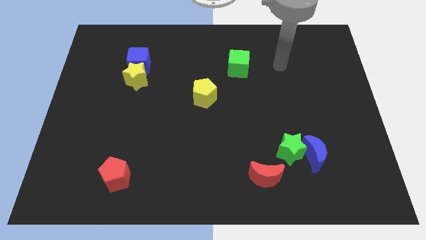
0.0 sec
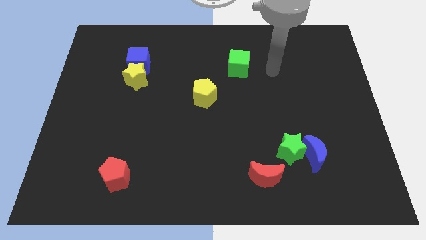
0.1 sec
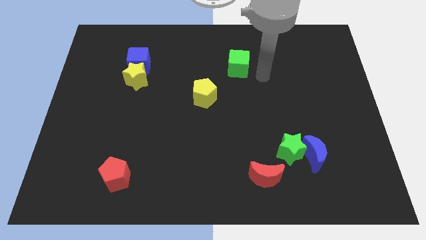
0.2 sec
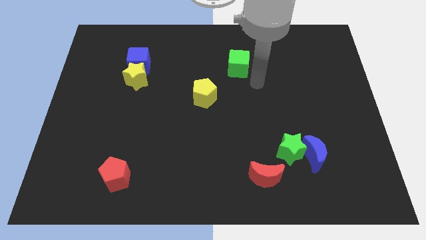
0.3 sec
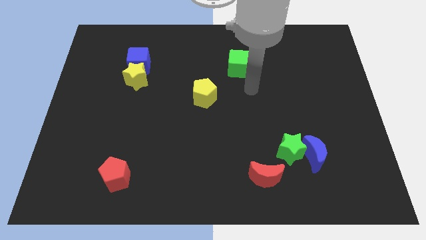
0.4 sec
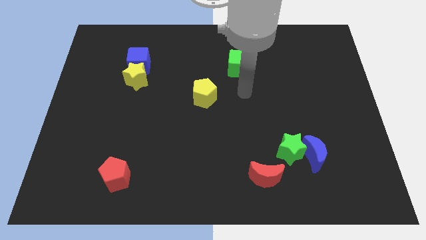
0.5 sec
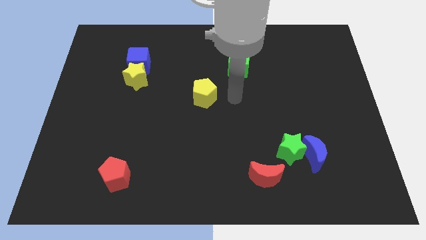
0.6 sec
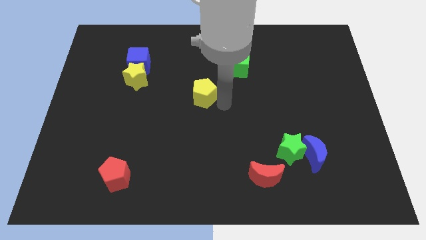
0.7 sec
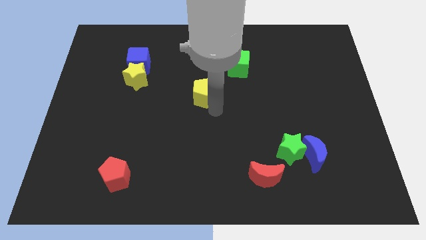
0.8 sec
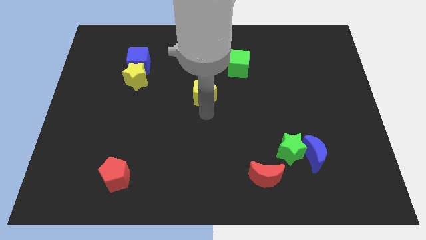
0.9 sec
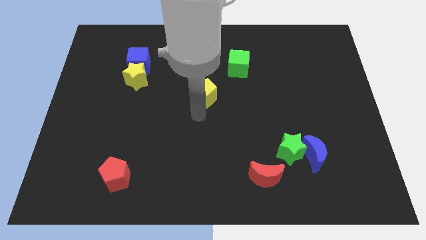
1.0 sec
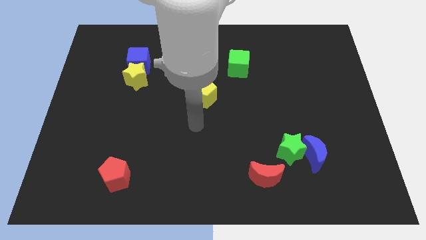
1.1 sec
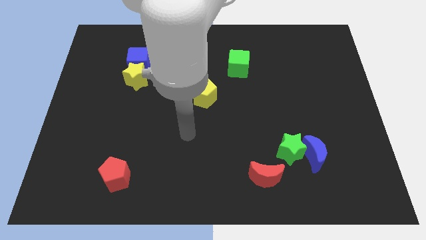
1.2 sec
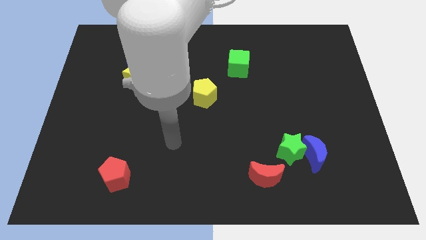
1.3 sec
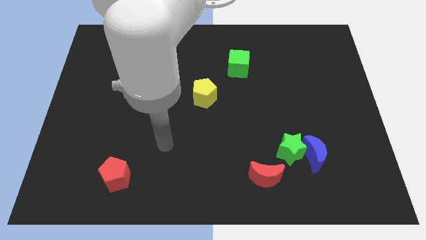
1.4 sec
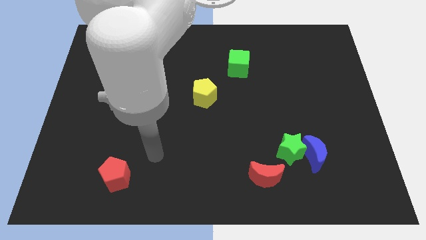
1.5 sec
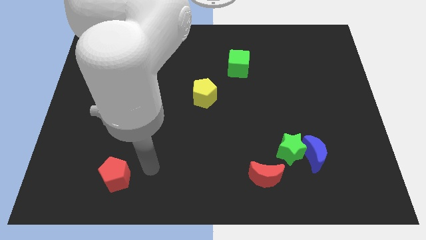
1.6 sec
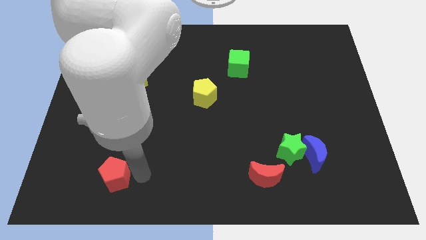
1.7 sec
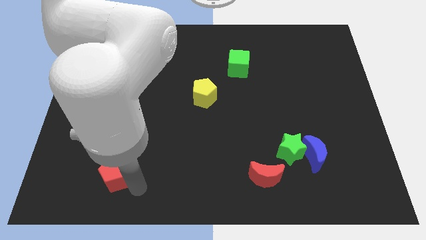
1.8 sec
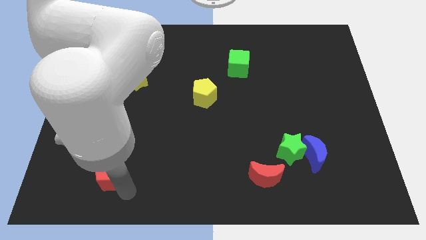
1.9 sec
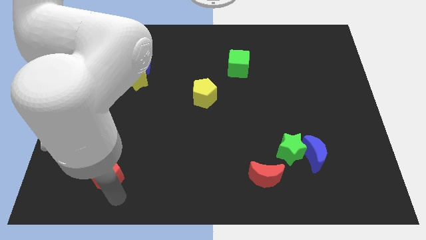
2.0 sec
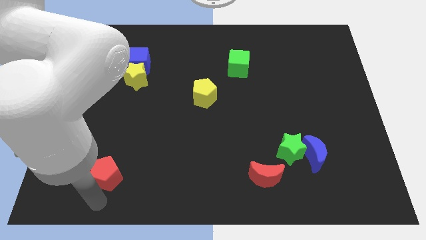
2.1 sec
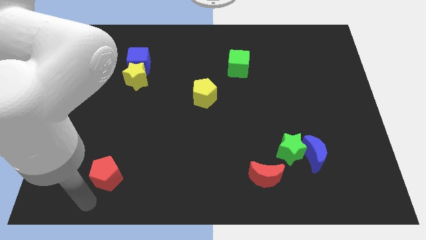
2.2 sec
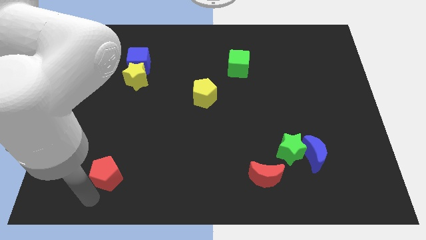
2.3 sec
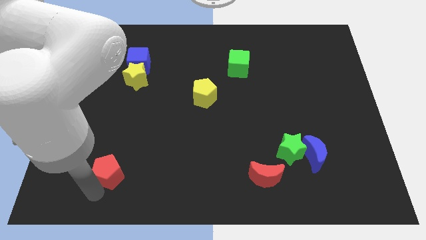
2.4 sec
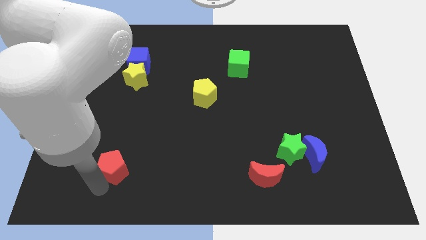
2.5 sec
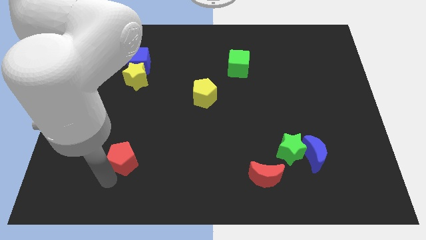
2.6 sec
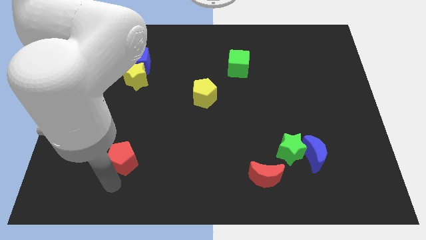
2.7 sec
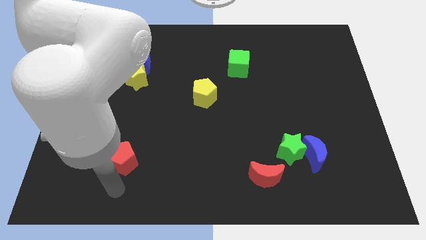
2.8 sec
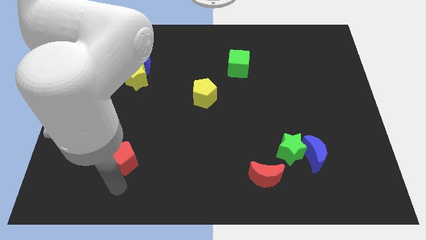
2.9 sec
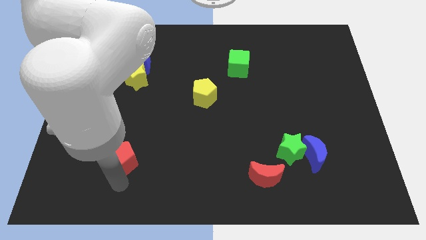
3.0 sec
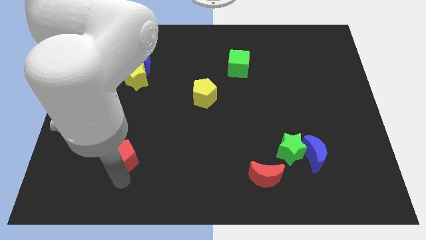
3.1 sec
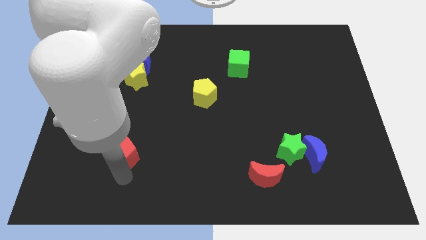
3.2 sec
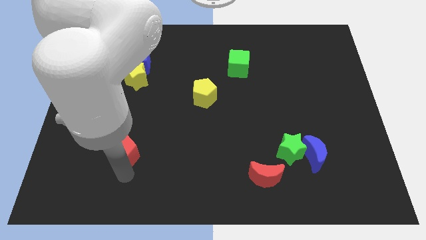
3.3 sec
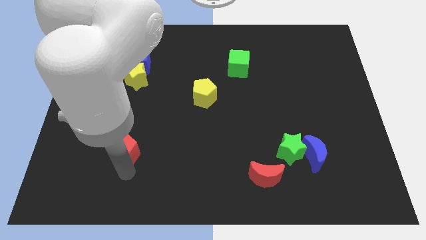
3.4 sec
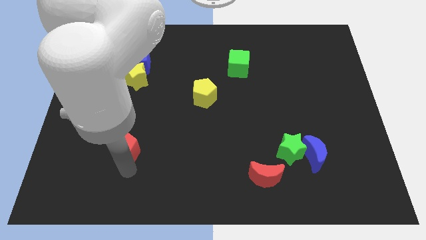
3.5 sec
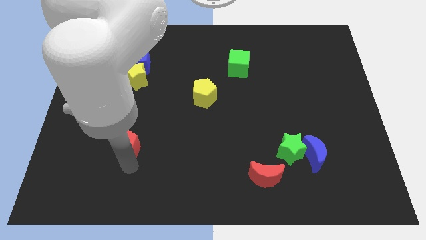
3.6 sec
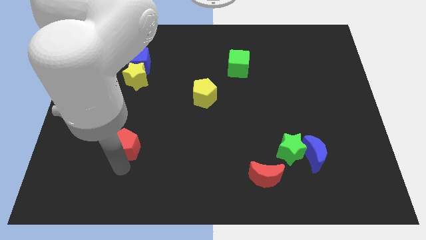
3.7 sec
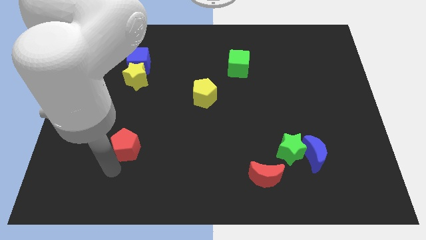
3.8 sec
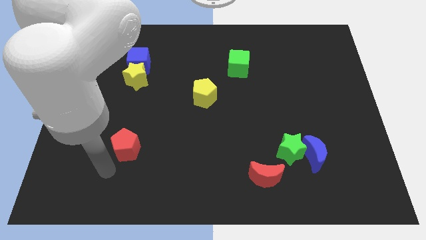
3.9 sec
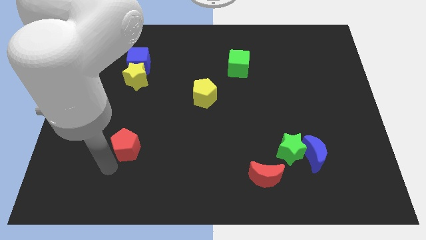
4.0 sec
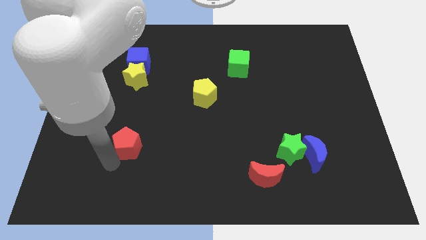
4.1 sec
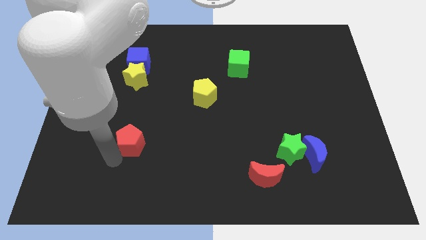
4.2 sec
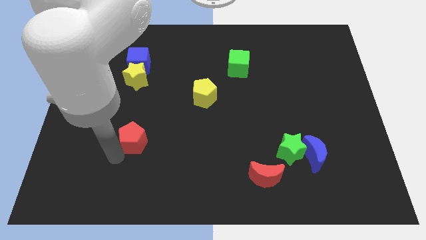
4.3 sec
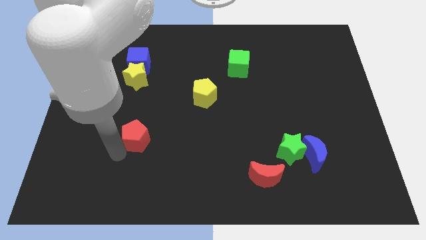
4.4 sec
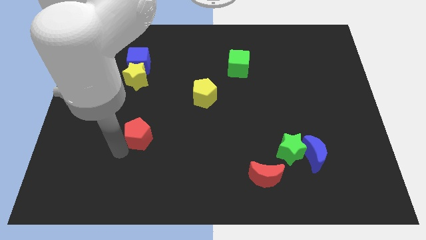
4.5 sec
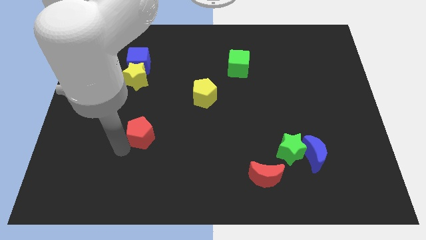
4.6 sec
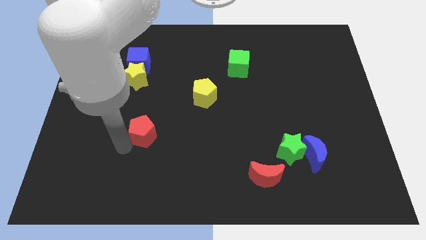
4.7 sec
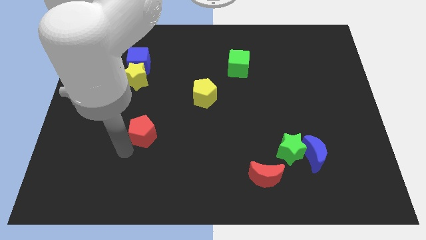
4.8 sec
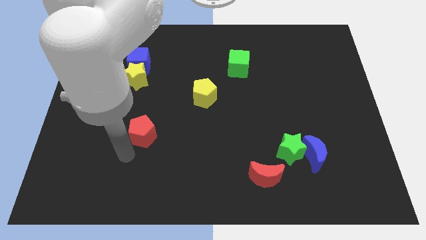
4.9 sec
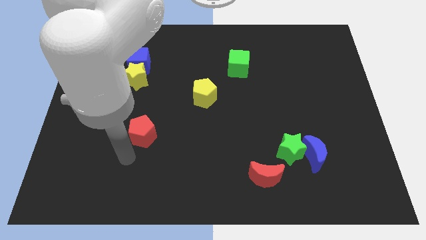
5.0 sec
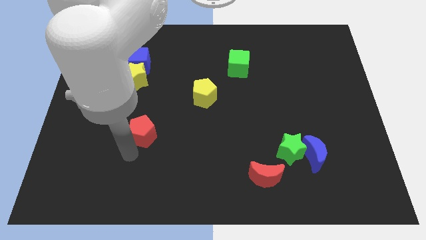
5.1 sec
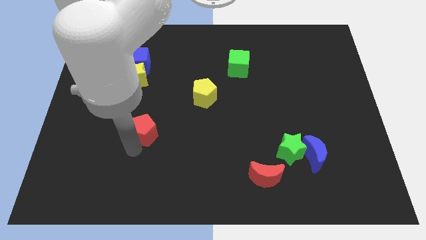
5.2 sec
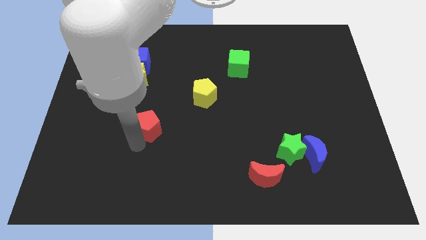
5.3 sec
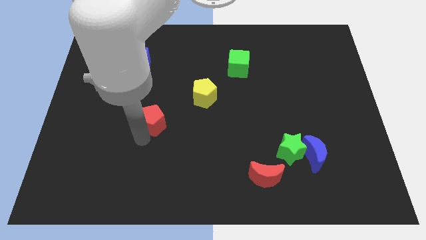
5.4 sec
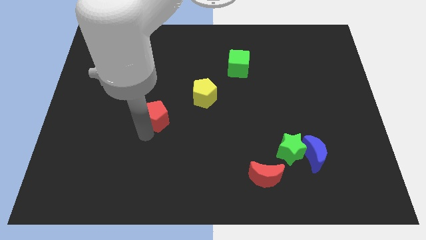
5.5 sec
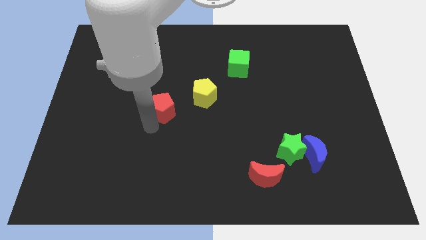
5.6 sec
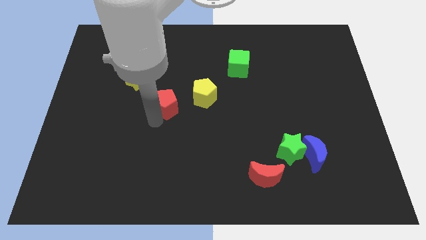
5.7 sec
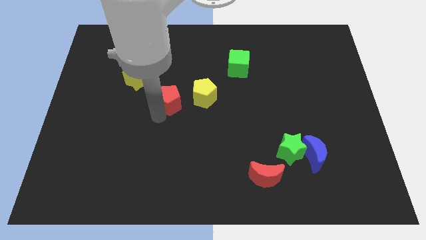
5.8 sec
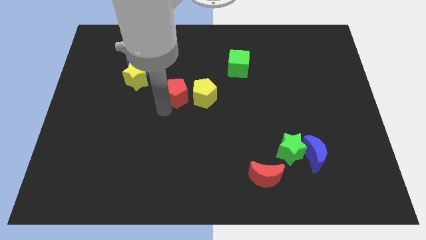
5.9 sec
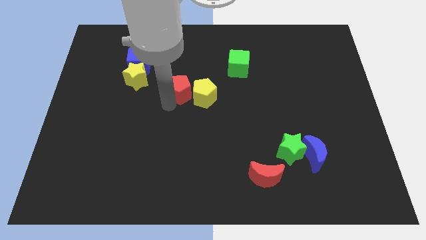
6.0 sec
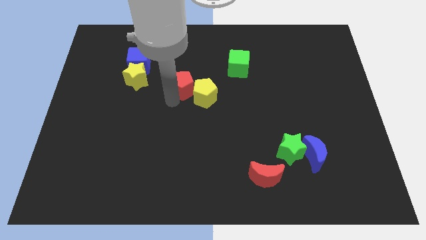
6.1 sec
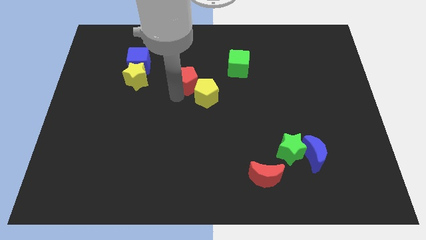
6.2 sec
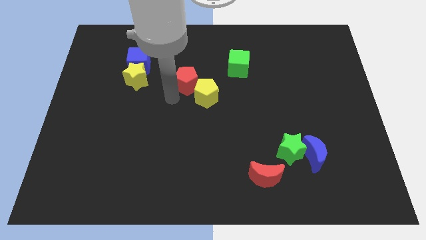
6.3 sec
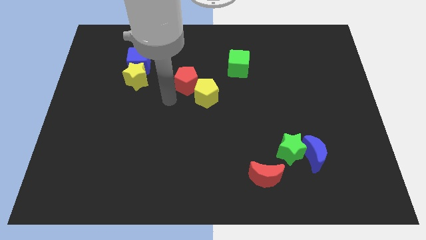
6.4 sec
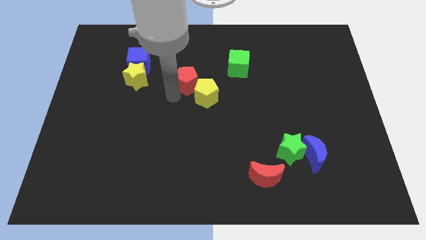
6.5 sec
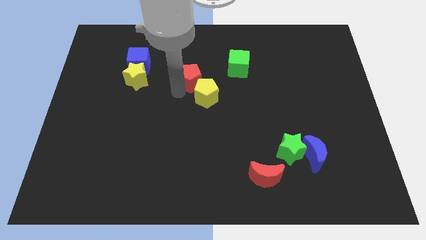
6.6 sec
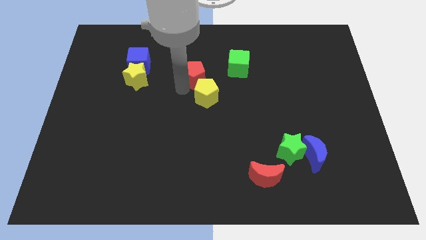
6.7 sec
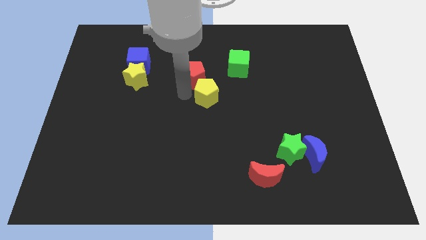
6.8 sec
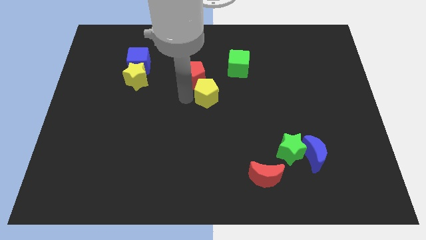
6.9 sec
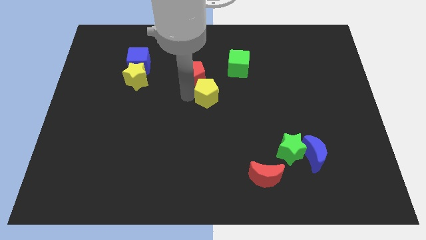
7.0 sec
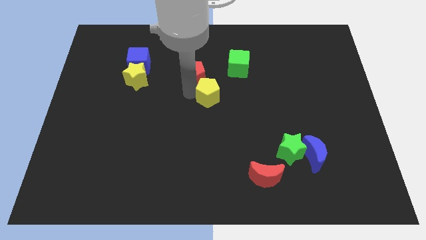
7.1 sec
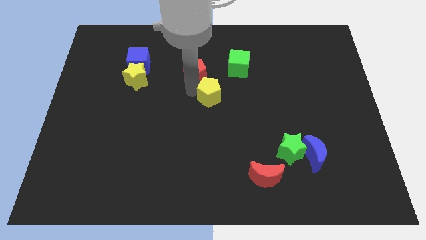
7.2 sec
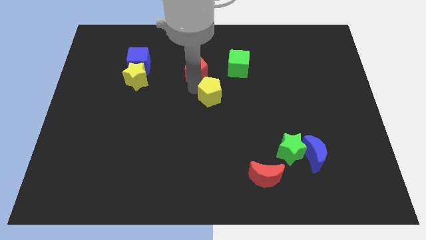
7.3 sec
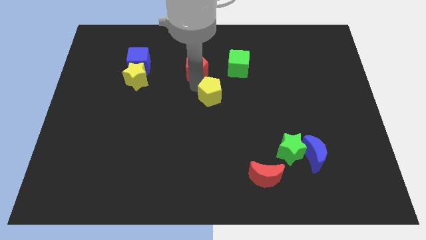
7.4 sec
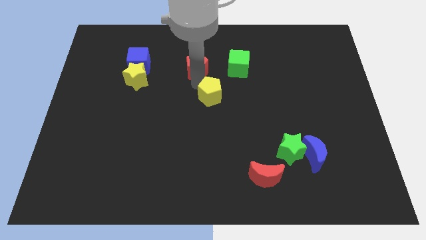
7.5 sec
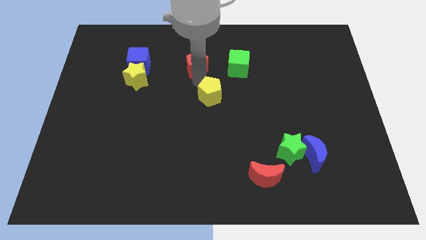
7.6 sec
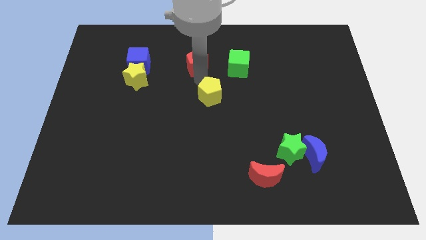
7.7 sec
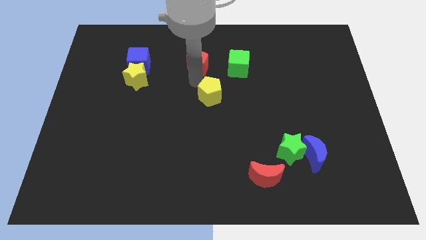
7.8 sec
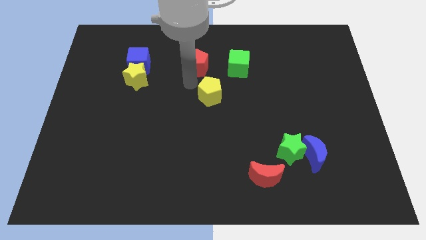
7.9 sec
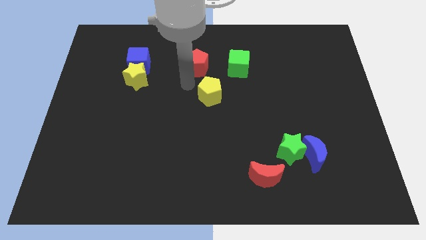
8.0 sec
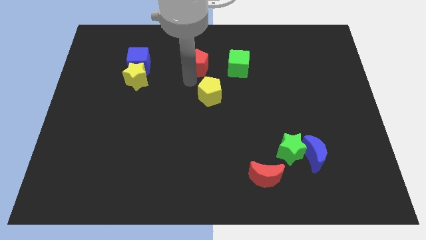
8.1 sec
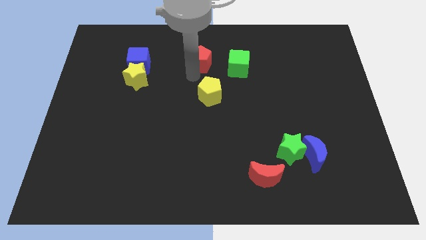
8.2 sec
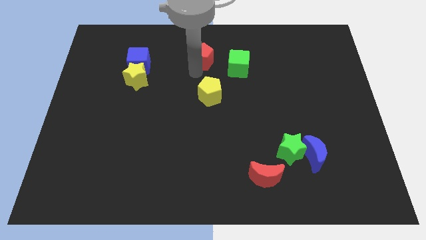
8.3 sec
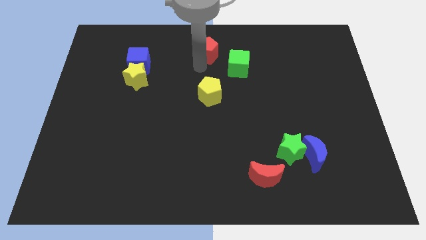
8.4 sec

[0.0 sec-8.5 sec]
move the red pentagon to the top side
